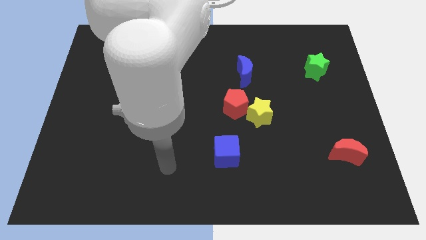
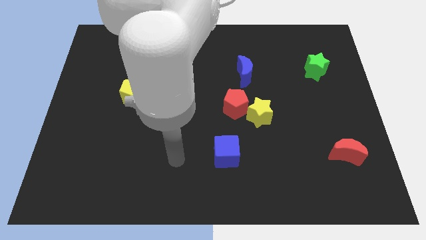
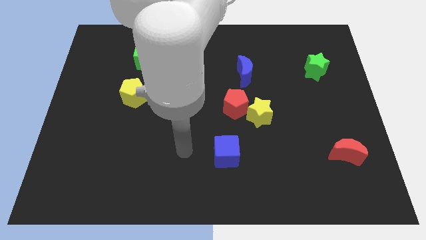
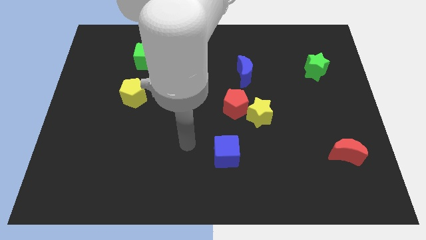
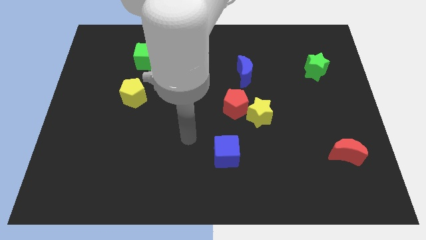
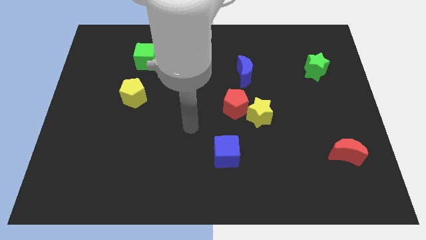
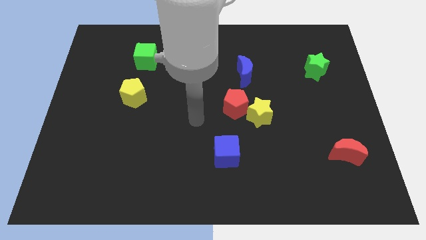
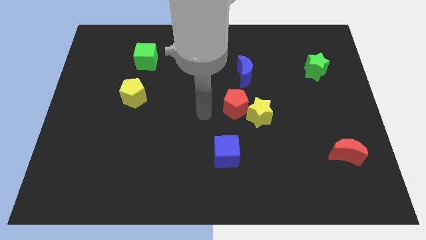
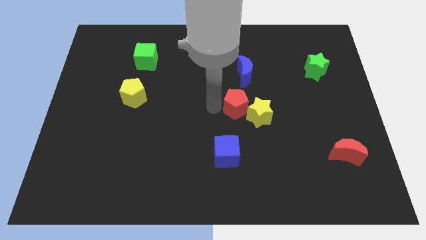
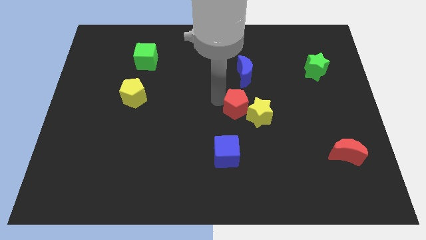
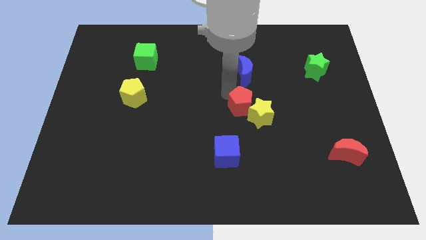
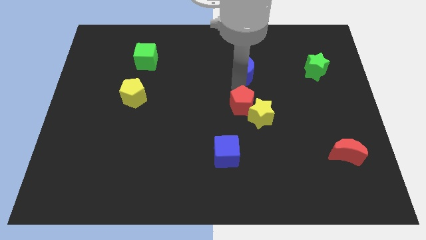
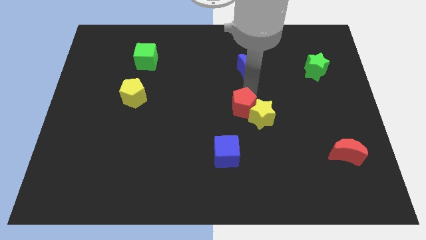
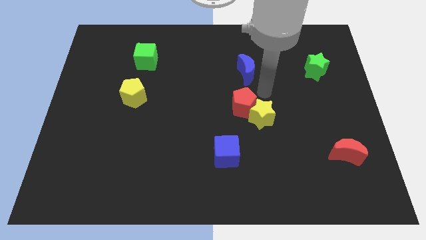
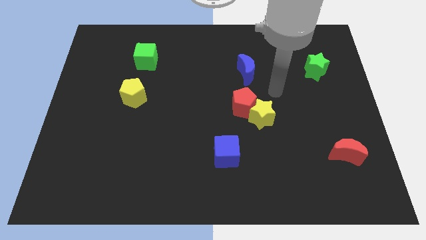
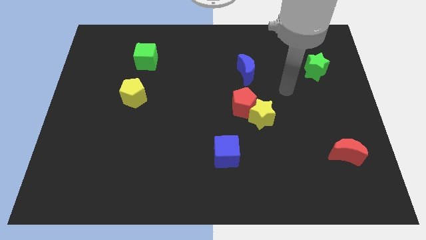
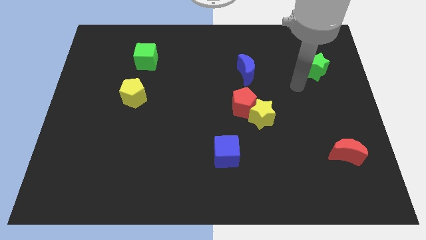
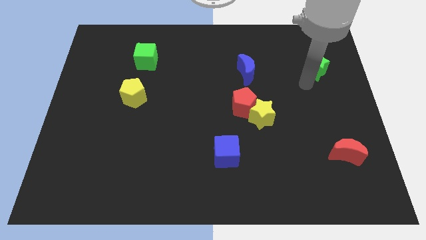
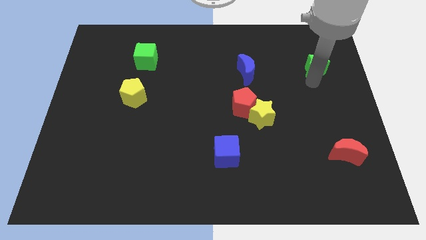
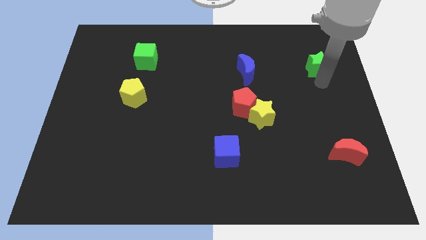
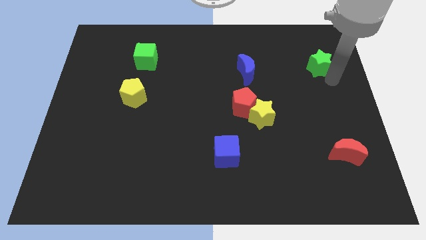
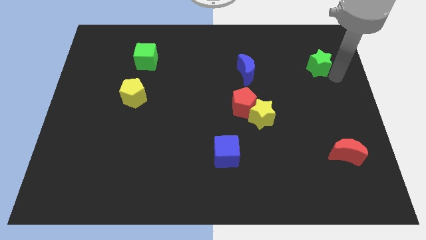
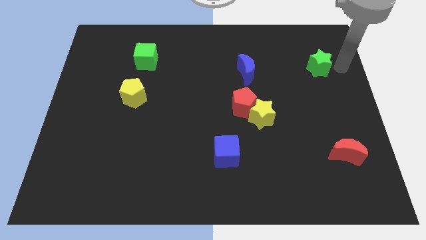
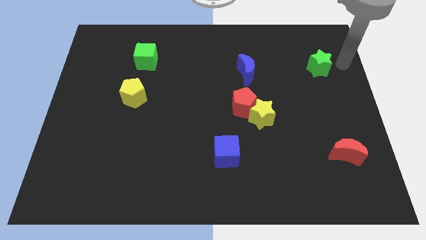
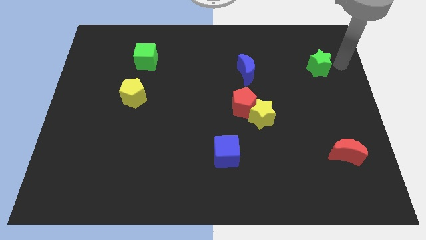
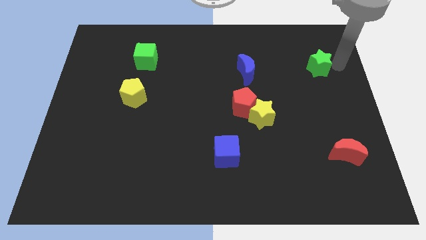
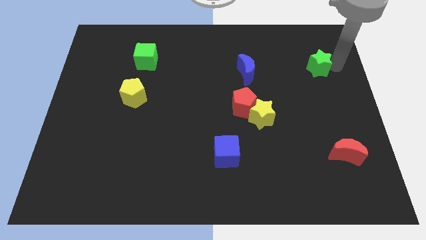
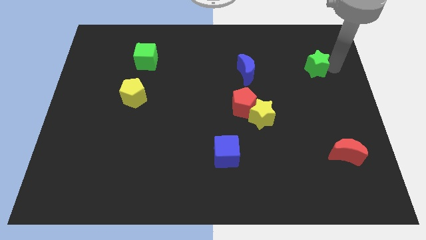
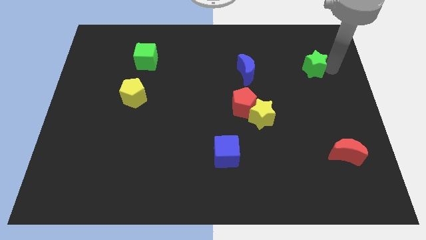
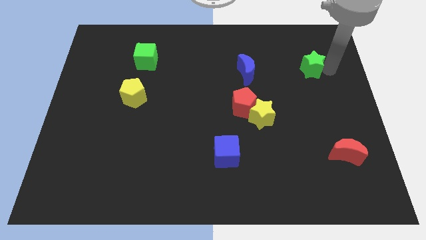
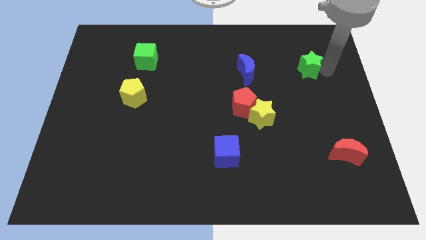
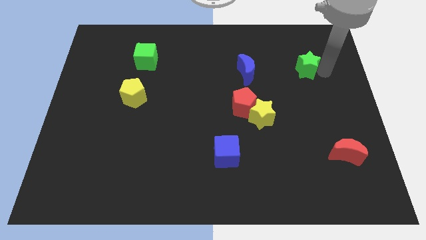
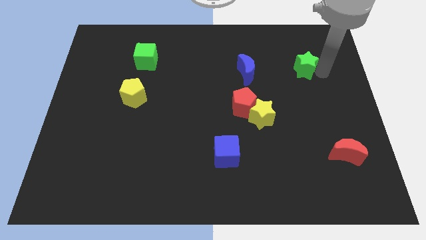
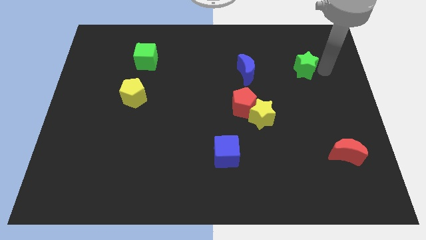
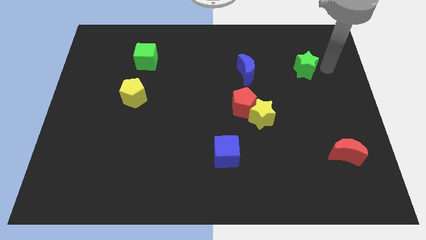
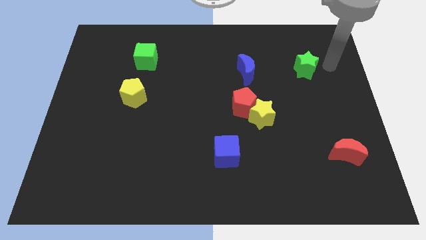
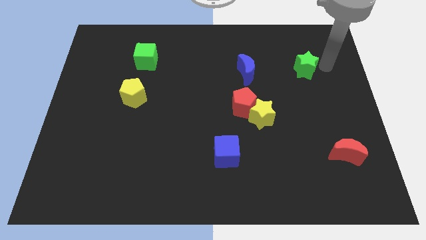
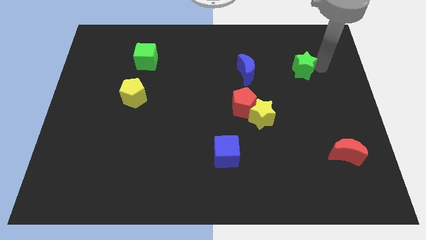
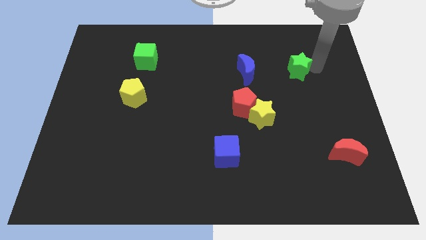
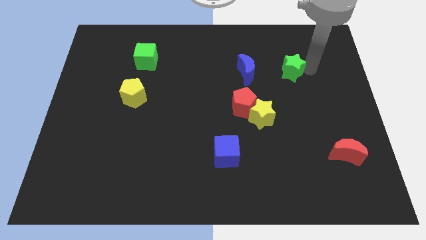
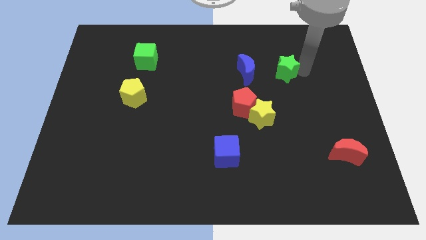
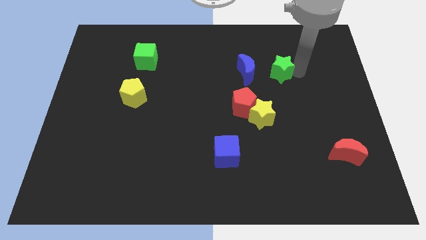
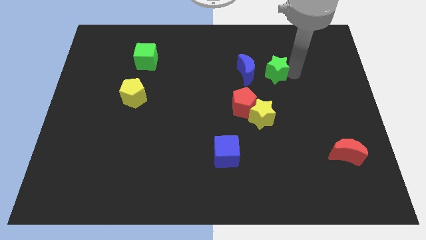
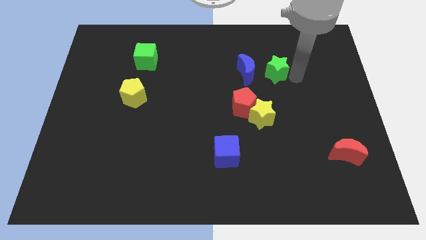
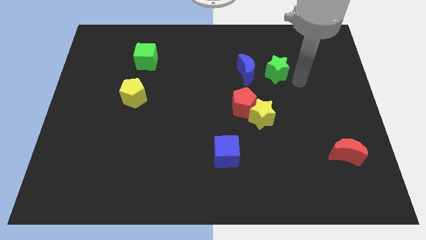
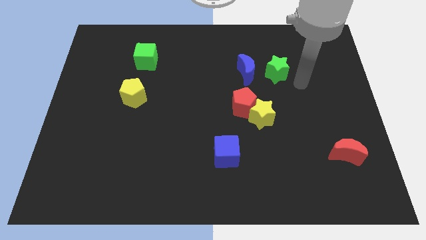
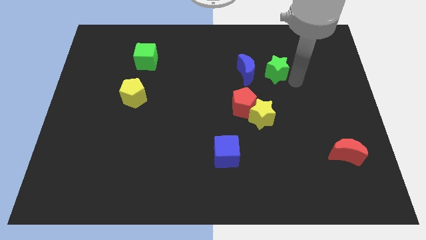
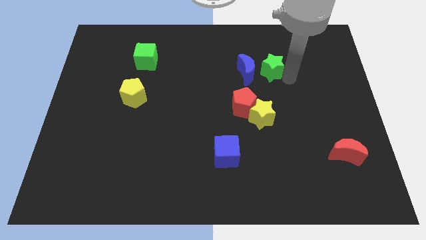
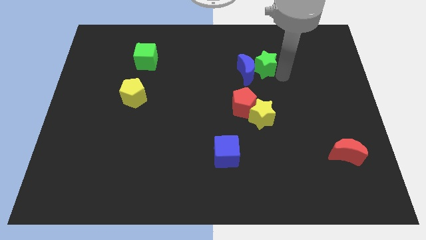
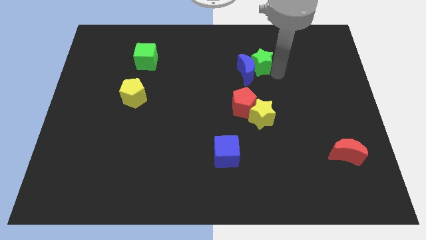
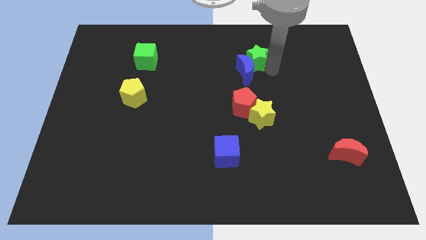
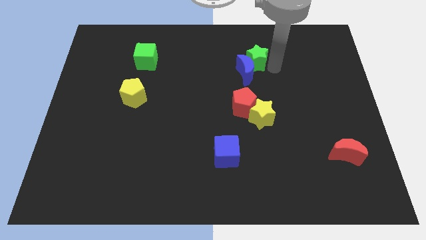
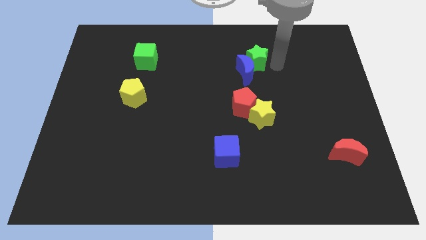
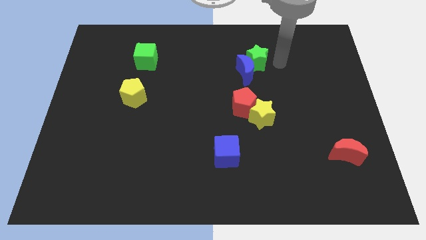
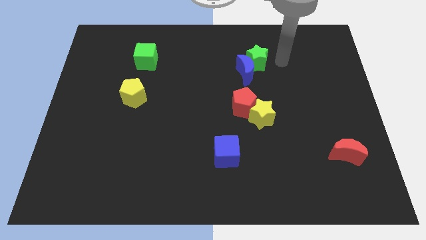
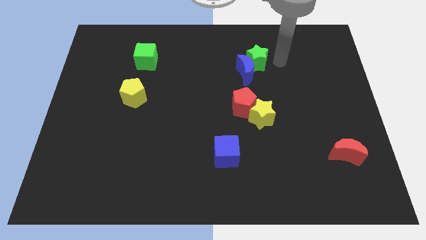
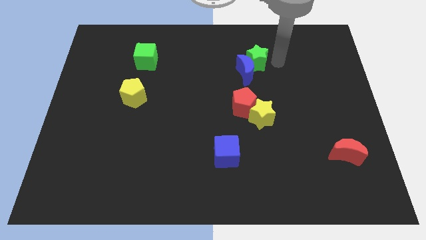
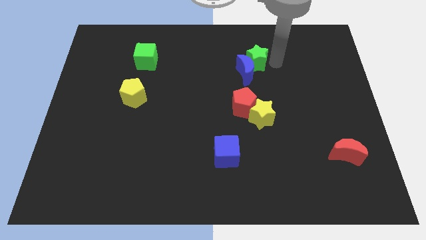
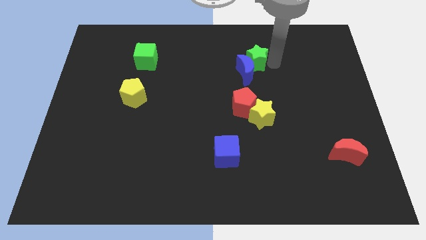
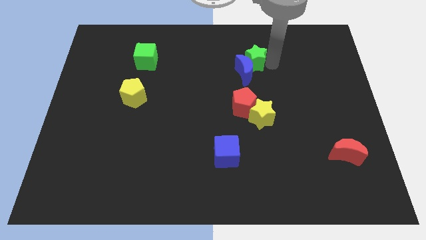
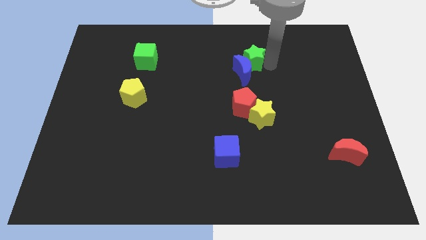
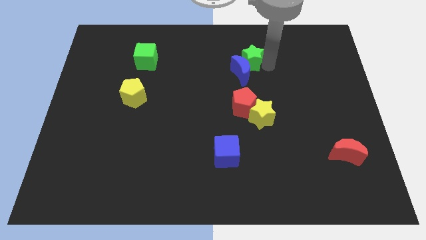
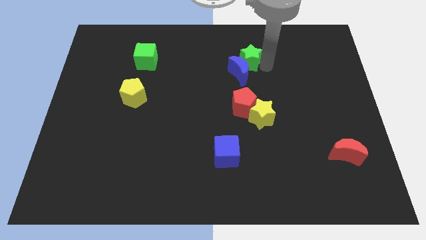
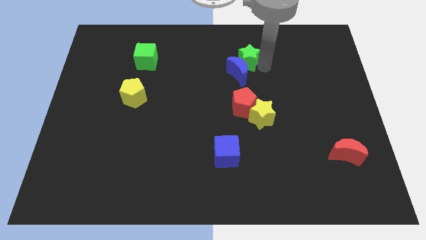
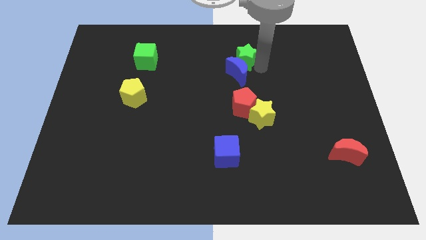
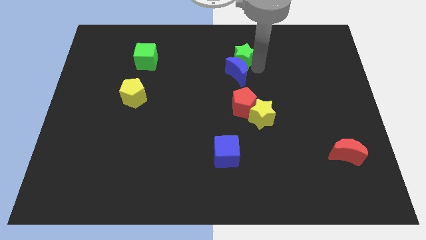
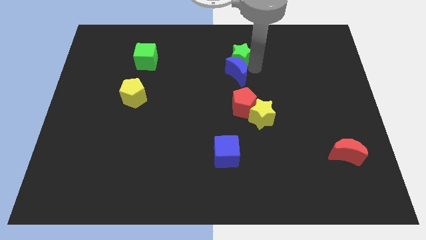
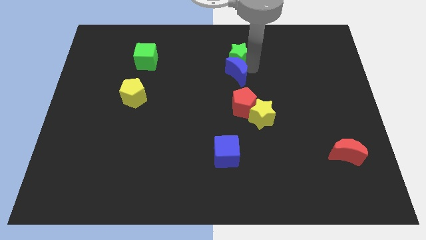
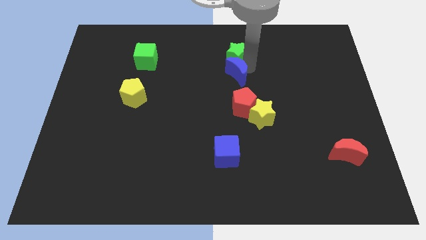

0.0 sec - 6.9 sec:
slide the green star to the left

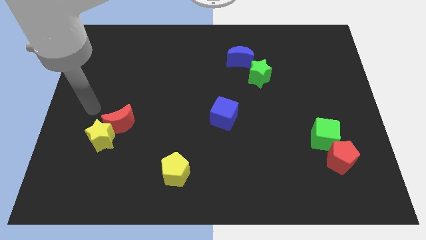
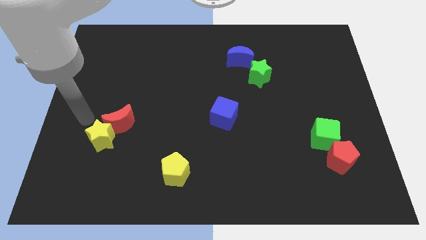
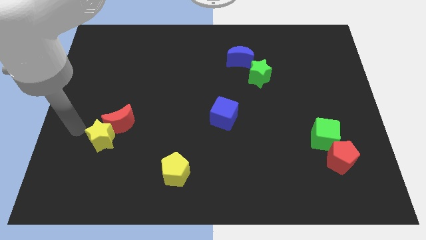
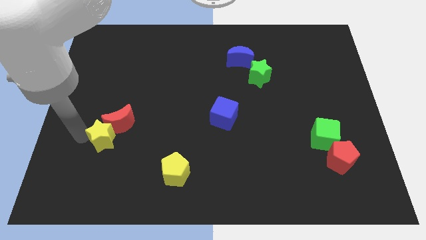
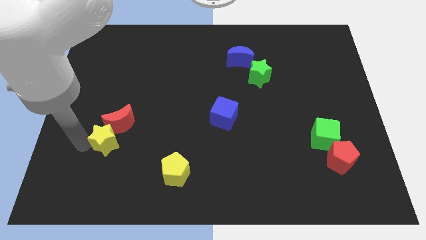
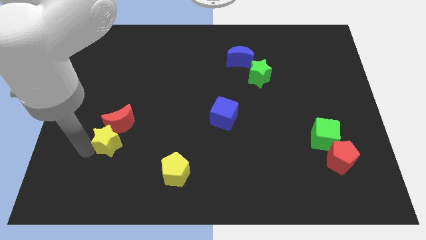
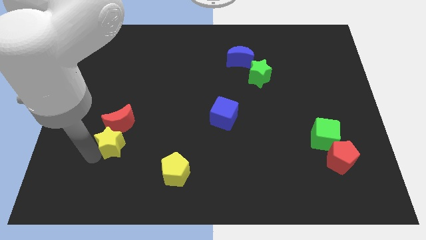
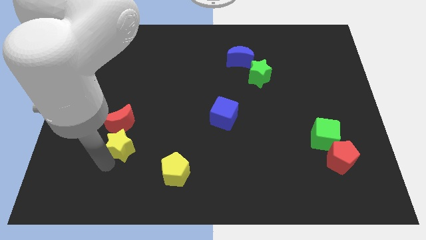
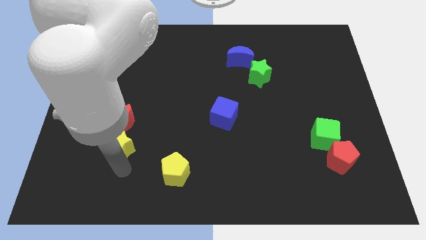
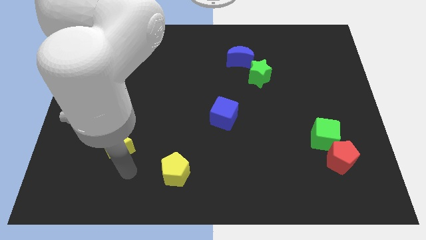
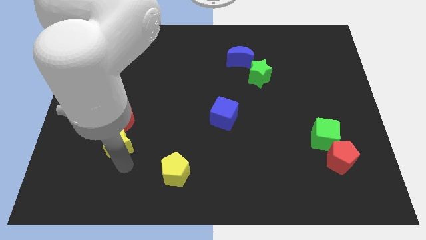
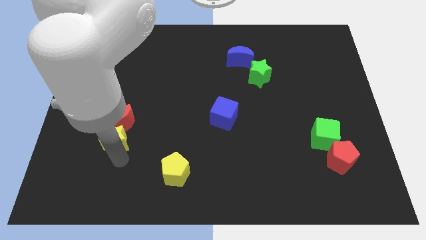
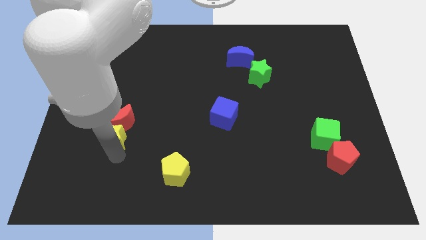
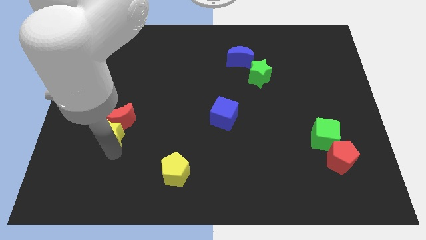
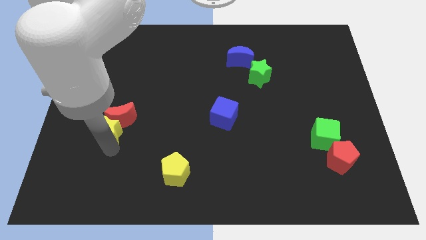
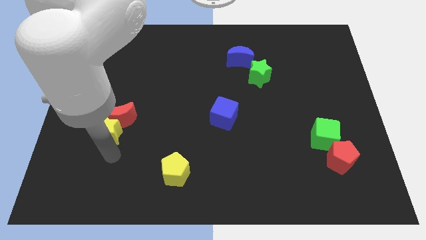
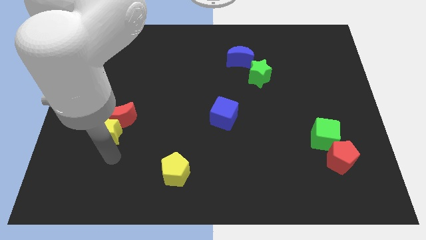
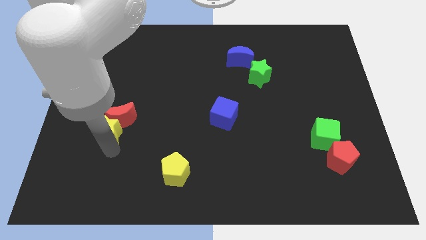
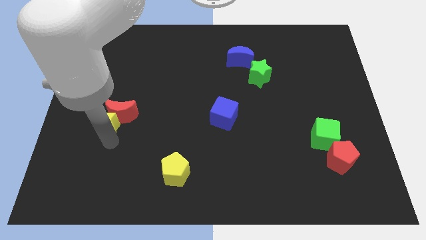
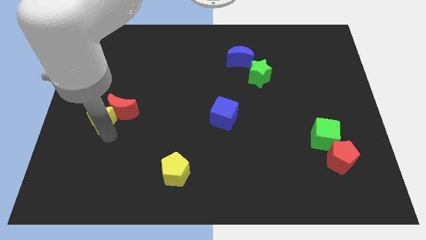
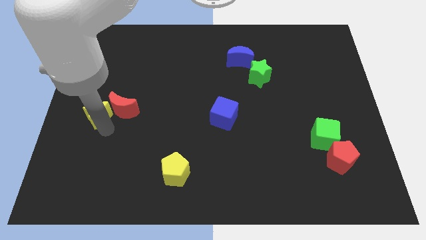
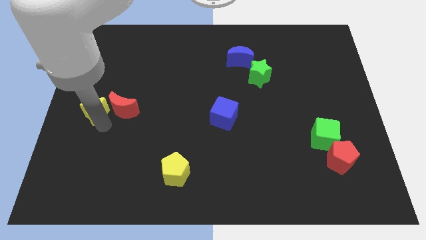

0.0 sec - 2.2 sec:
push the yellow star a bit up
